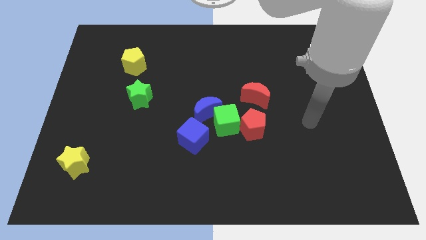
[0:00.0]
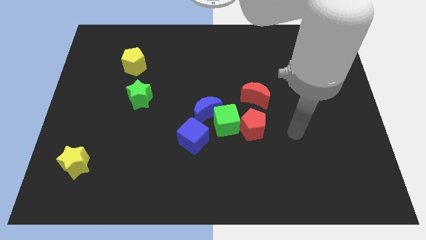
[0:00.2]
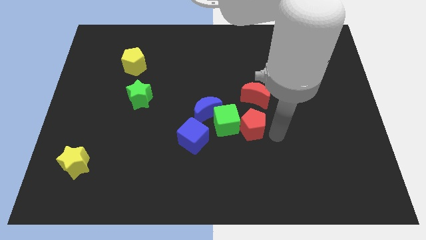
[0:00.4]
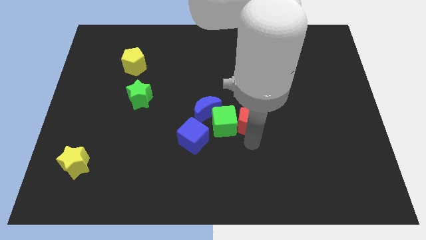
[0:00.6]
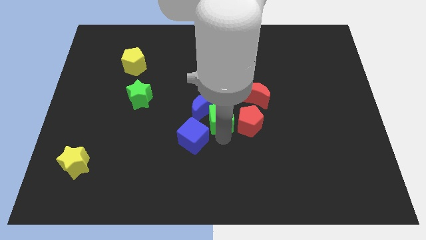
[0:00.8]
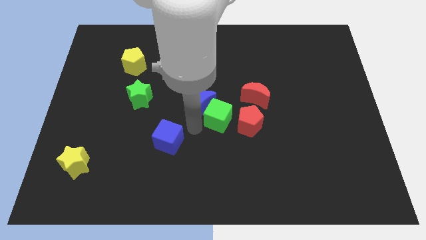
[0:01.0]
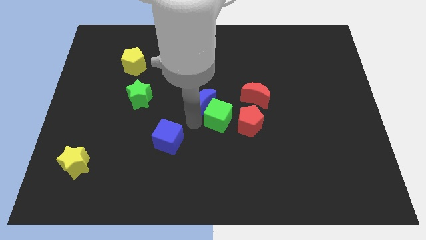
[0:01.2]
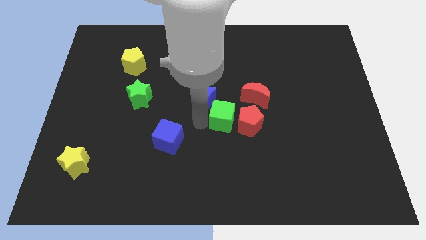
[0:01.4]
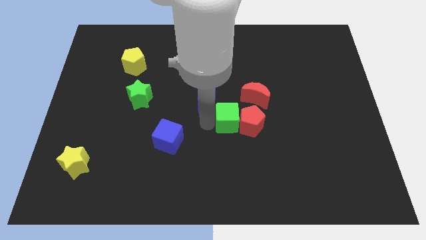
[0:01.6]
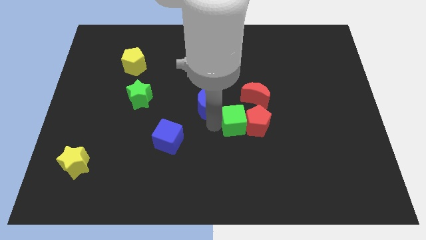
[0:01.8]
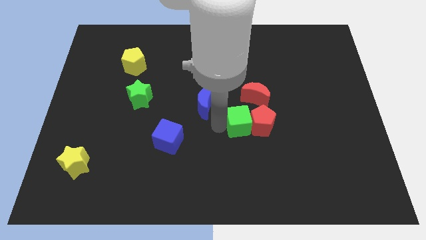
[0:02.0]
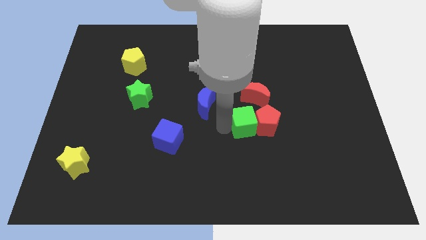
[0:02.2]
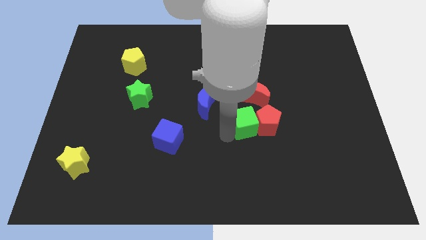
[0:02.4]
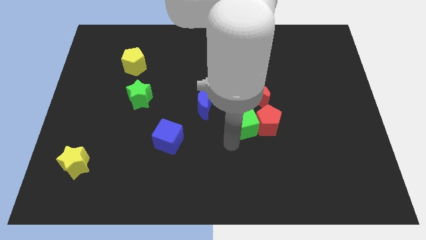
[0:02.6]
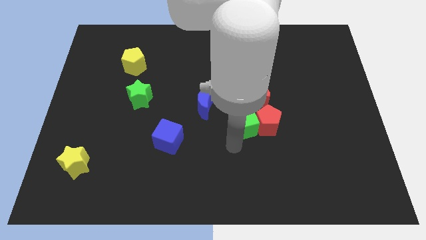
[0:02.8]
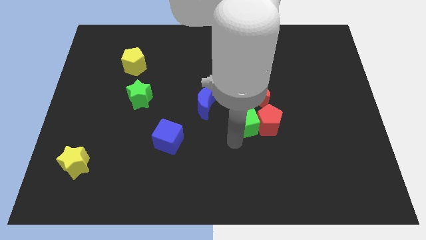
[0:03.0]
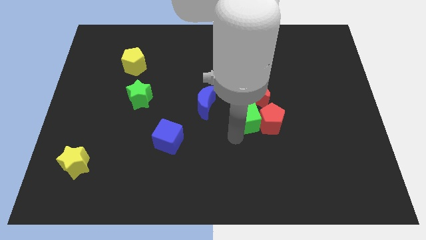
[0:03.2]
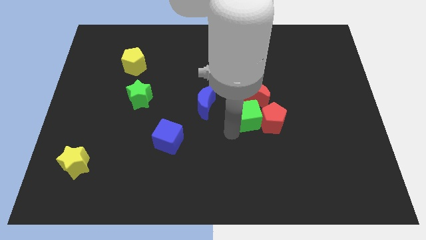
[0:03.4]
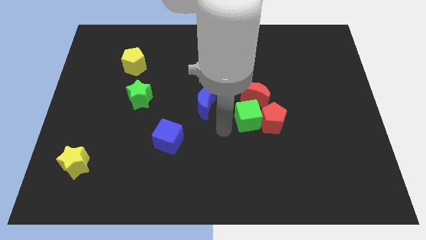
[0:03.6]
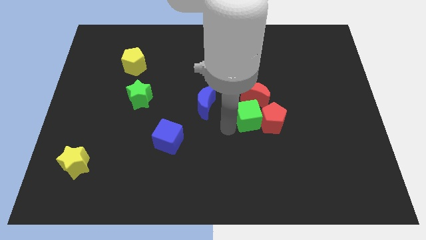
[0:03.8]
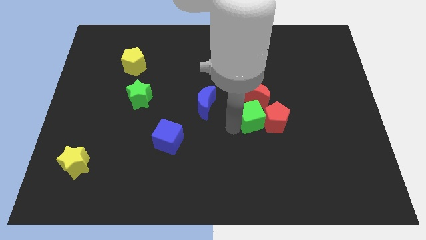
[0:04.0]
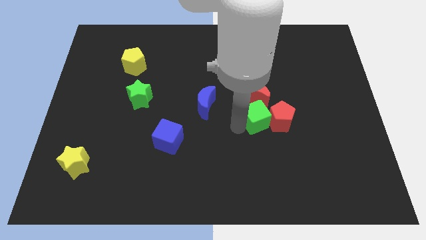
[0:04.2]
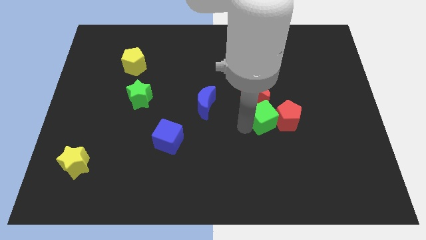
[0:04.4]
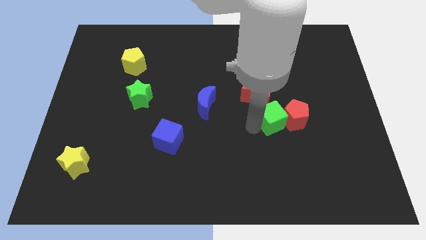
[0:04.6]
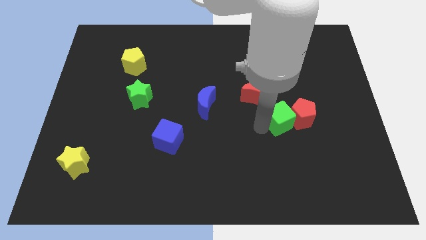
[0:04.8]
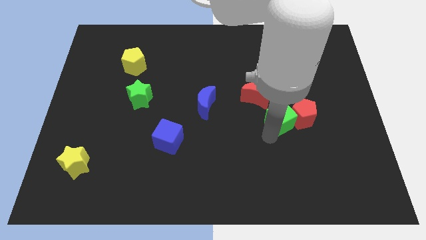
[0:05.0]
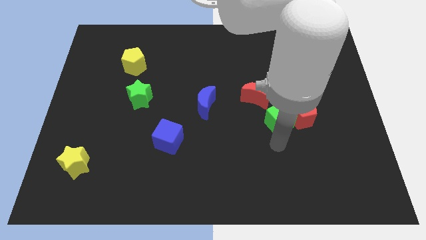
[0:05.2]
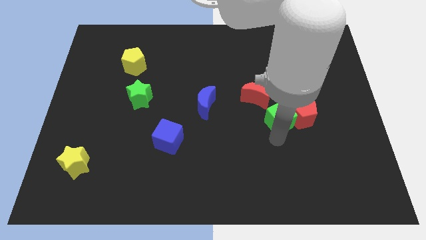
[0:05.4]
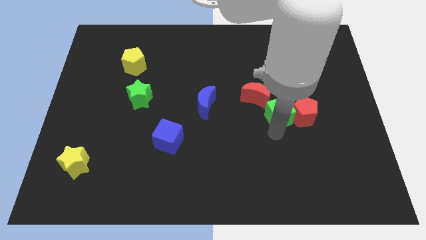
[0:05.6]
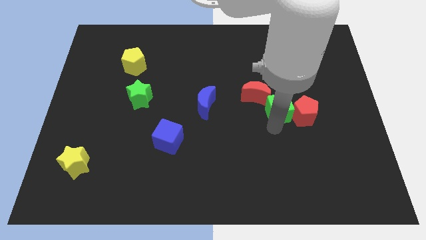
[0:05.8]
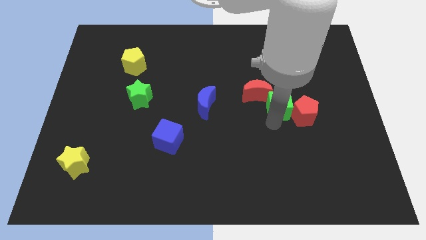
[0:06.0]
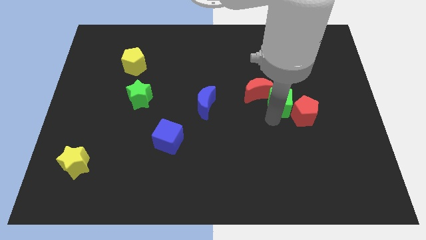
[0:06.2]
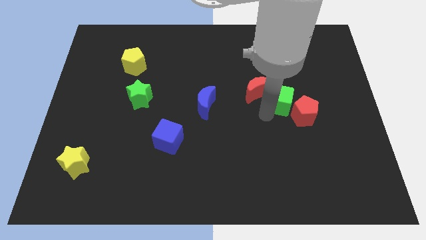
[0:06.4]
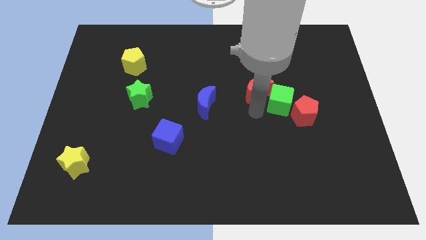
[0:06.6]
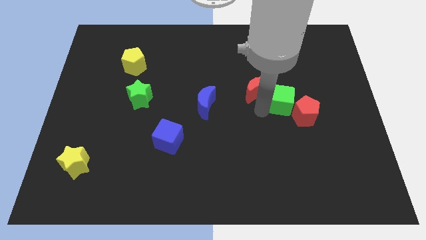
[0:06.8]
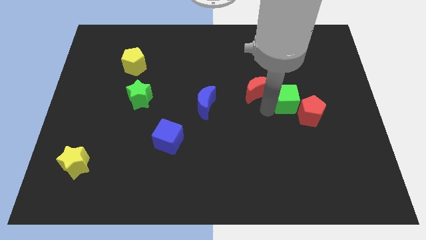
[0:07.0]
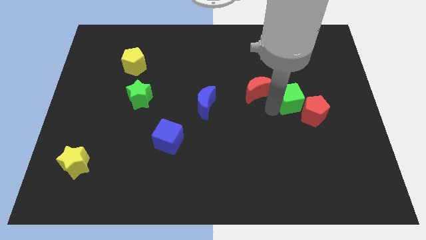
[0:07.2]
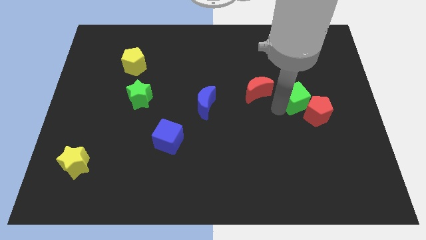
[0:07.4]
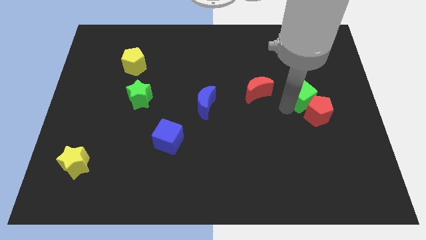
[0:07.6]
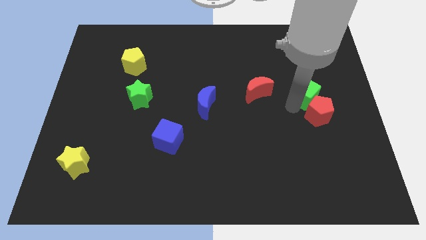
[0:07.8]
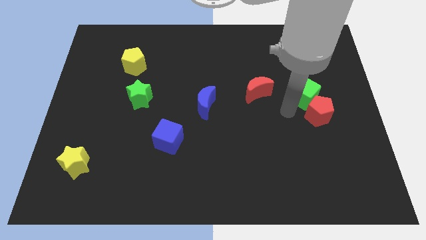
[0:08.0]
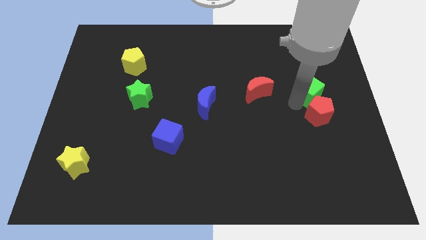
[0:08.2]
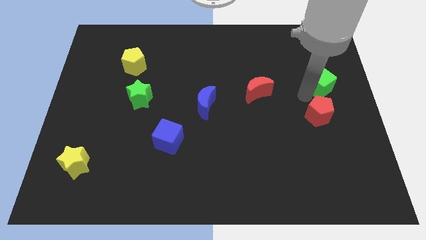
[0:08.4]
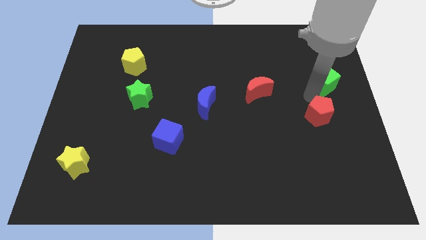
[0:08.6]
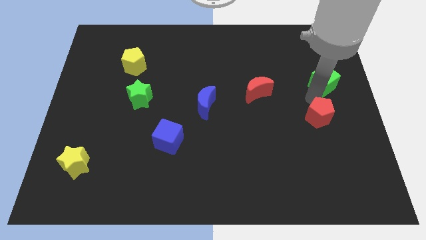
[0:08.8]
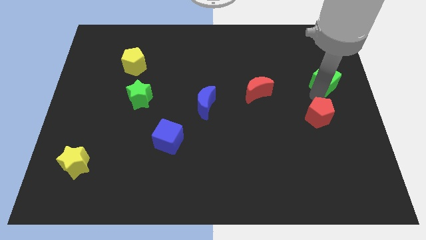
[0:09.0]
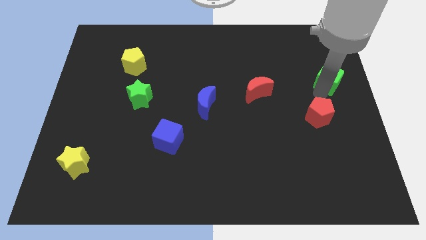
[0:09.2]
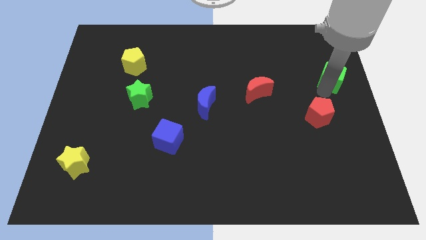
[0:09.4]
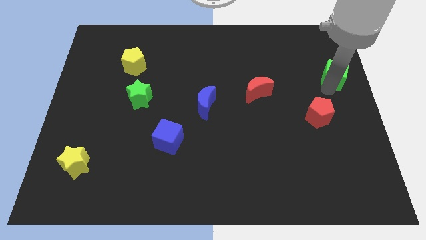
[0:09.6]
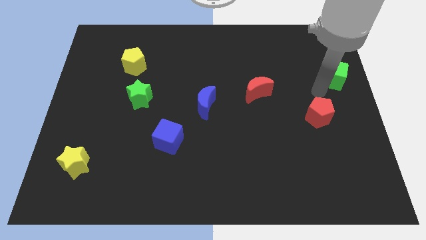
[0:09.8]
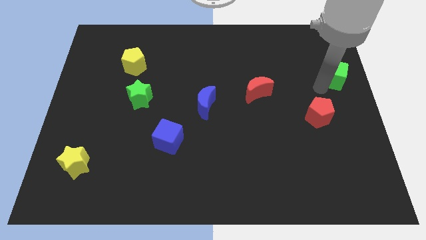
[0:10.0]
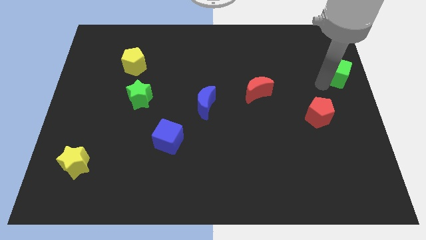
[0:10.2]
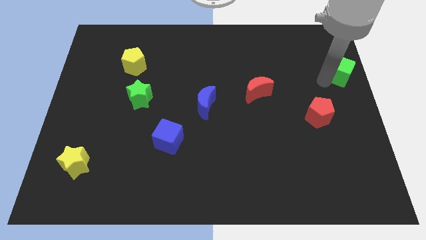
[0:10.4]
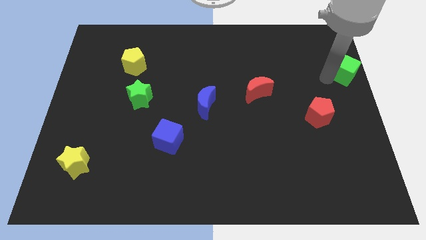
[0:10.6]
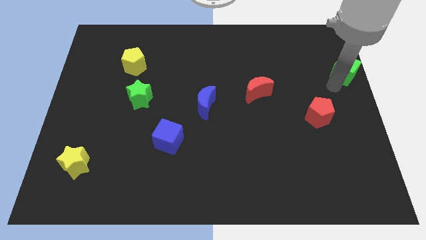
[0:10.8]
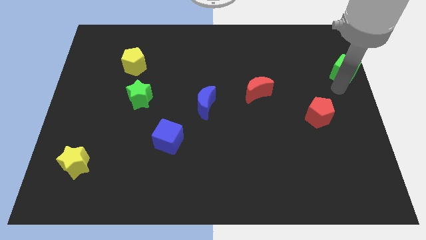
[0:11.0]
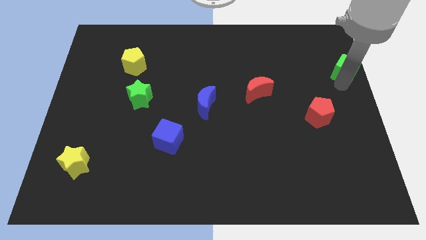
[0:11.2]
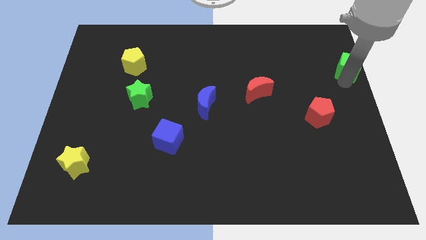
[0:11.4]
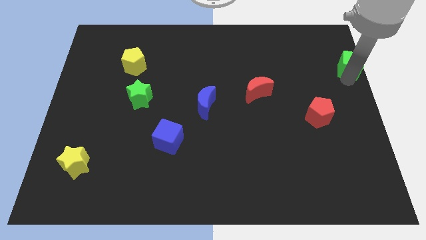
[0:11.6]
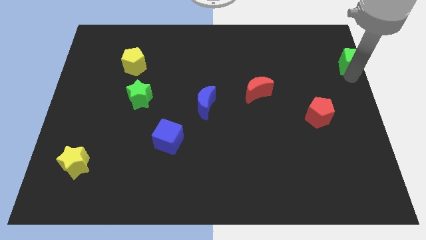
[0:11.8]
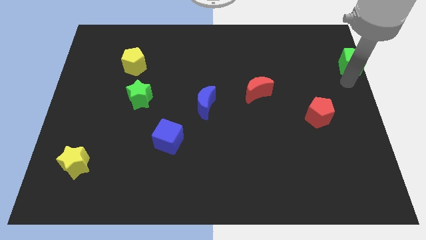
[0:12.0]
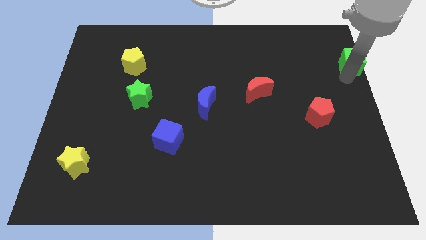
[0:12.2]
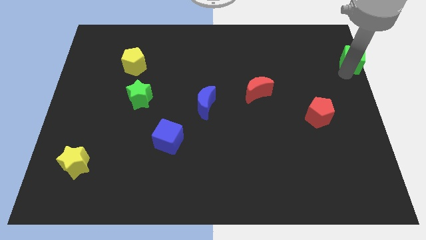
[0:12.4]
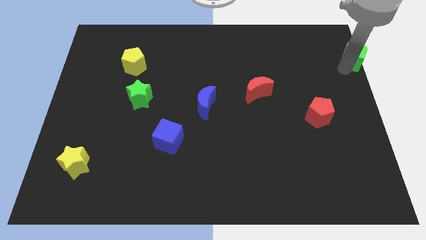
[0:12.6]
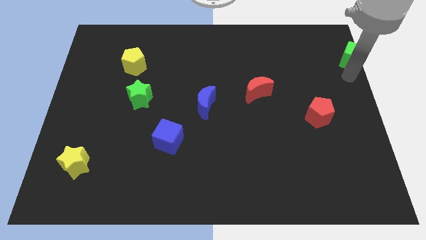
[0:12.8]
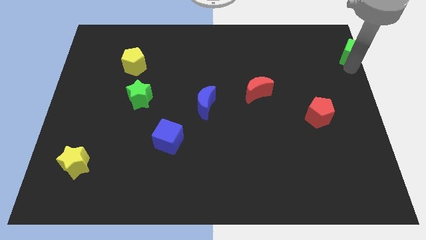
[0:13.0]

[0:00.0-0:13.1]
put the green cube to the top right

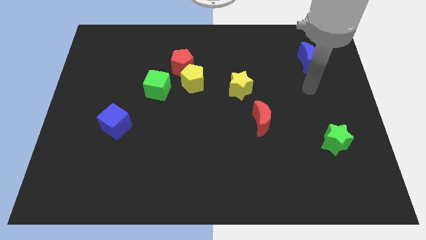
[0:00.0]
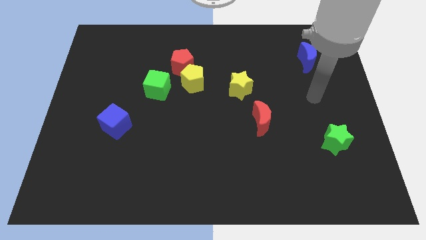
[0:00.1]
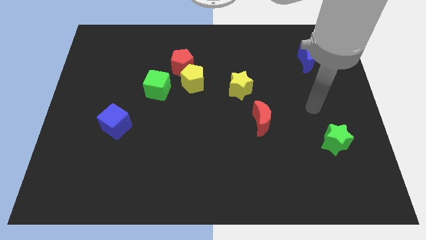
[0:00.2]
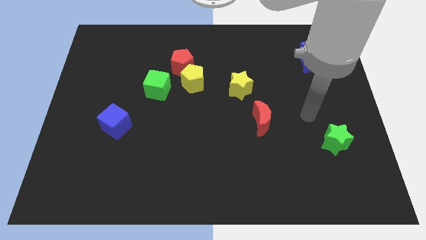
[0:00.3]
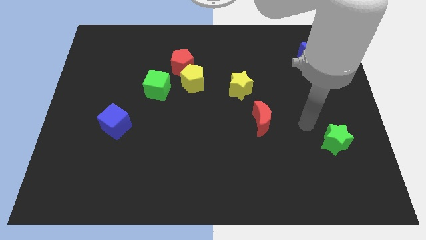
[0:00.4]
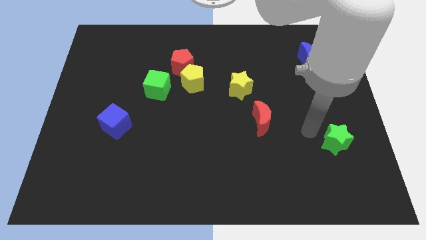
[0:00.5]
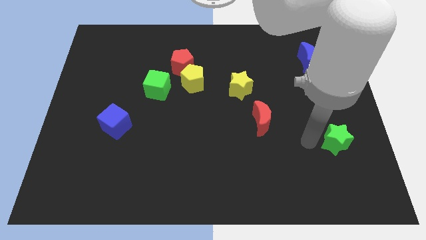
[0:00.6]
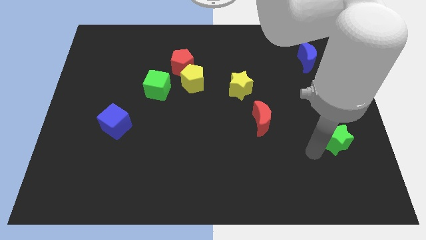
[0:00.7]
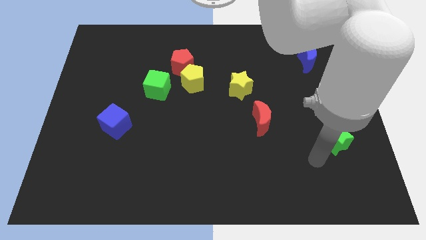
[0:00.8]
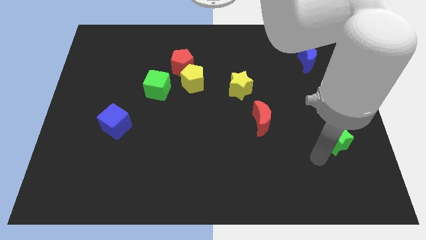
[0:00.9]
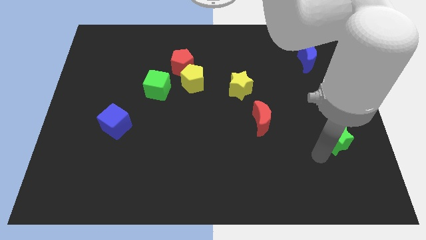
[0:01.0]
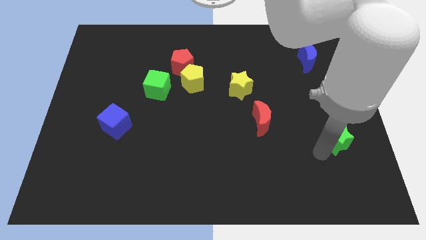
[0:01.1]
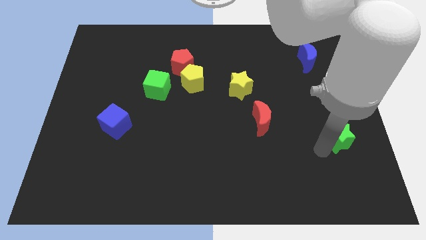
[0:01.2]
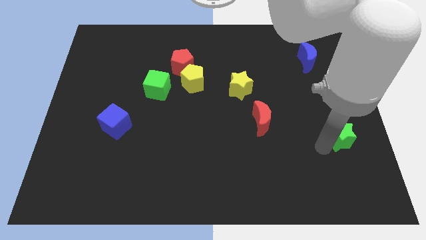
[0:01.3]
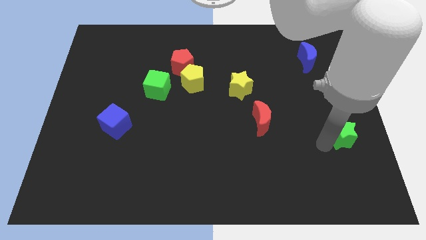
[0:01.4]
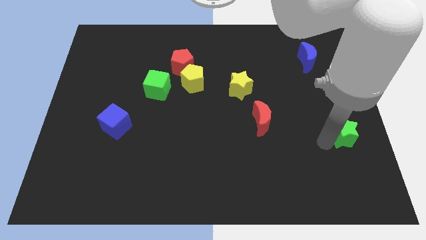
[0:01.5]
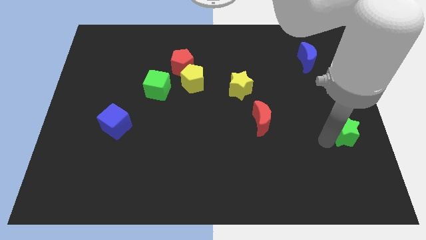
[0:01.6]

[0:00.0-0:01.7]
push the green star to the center right
